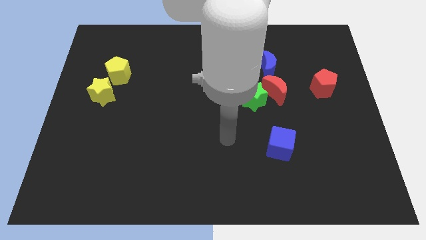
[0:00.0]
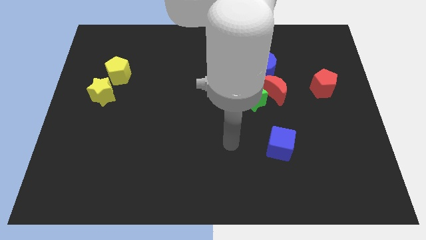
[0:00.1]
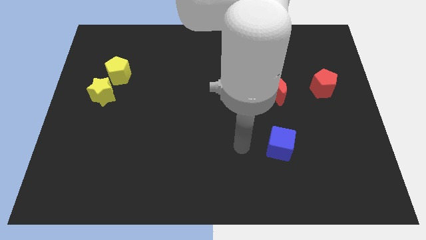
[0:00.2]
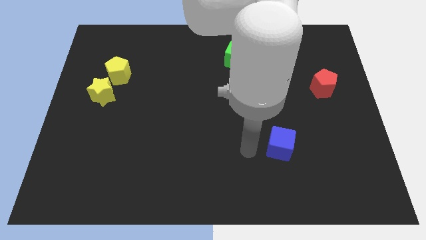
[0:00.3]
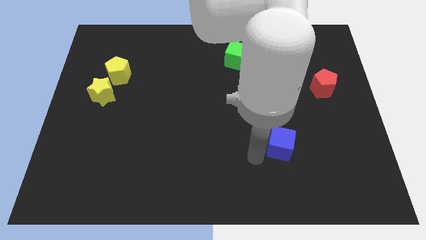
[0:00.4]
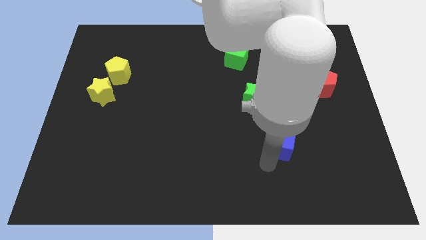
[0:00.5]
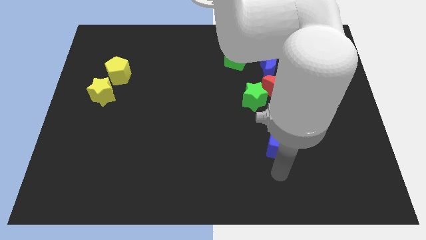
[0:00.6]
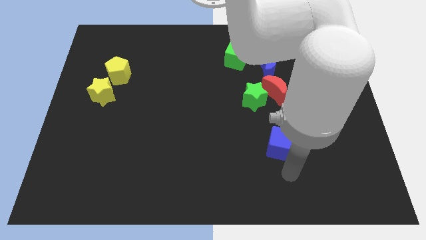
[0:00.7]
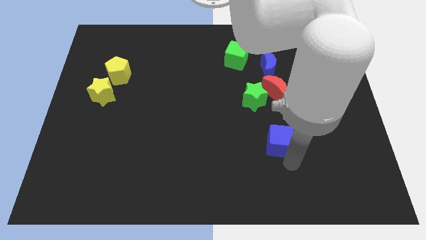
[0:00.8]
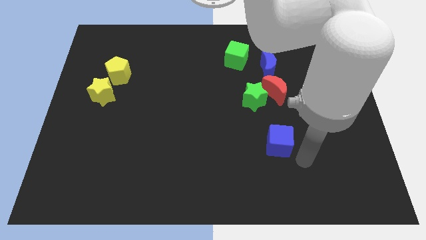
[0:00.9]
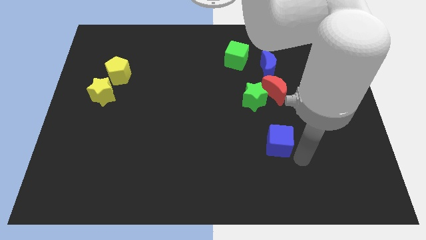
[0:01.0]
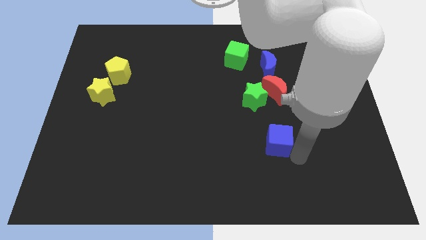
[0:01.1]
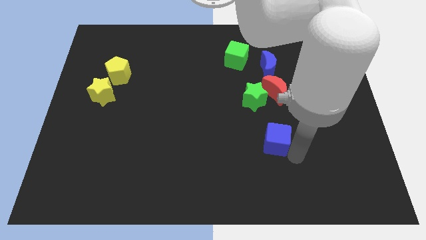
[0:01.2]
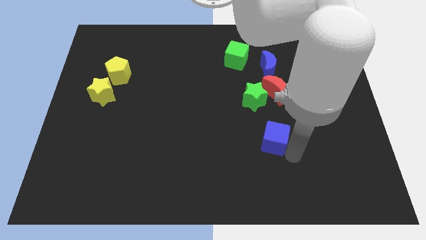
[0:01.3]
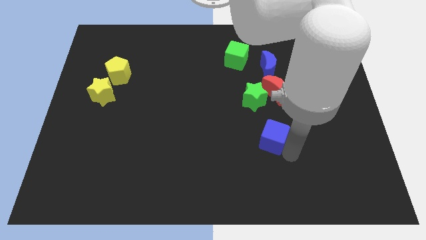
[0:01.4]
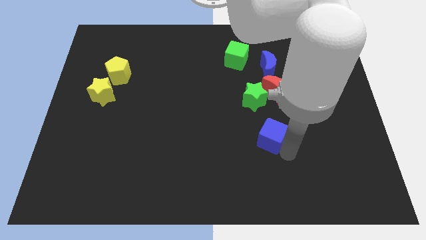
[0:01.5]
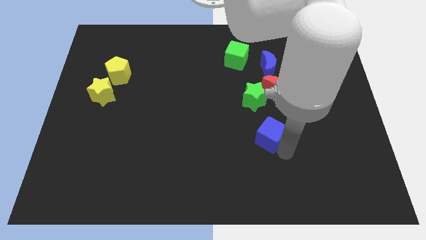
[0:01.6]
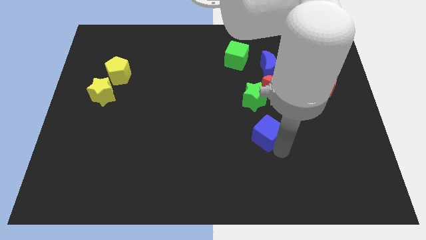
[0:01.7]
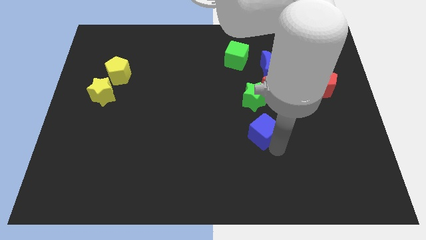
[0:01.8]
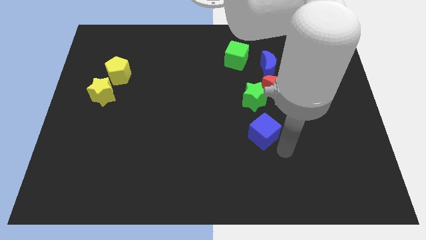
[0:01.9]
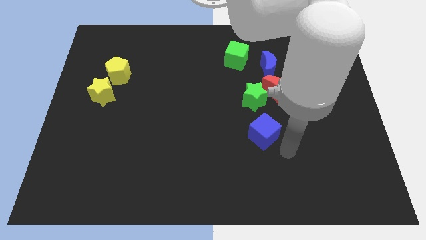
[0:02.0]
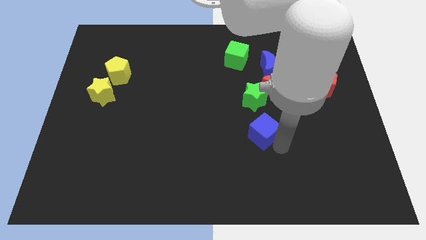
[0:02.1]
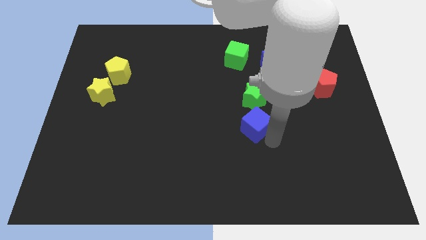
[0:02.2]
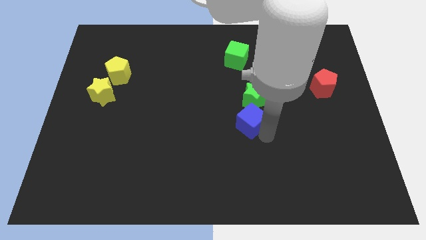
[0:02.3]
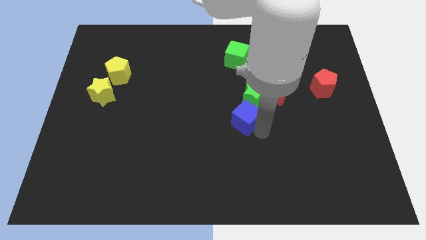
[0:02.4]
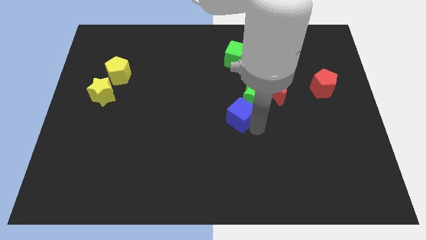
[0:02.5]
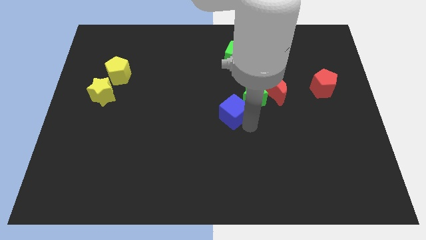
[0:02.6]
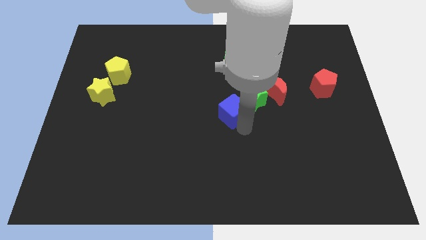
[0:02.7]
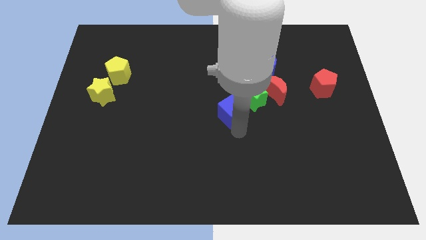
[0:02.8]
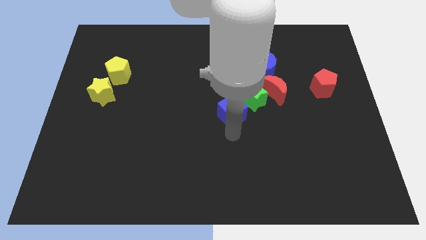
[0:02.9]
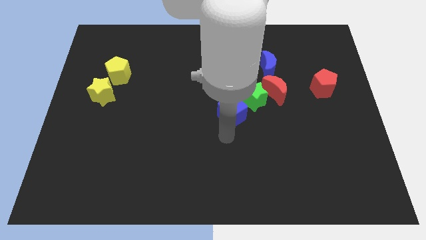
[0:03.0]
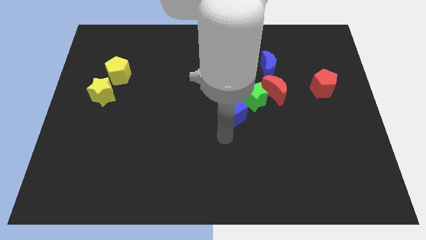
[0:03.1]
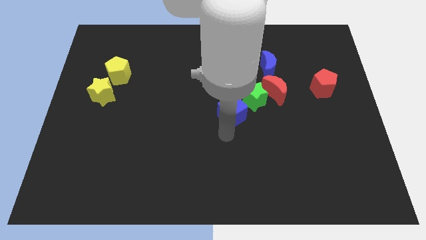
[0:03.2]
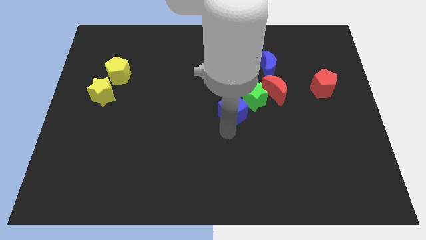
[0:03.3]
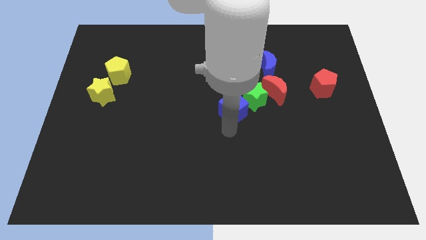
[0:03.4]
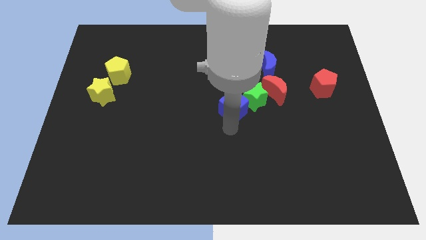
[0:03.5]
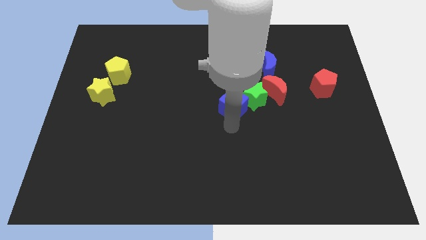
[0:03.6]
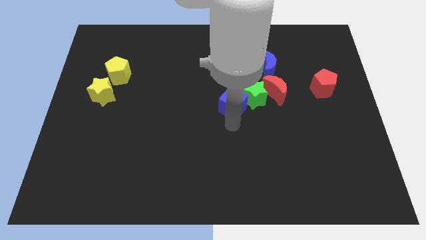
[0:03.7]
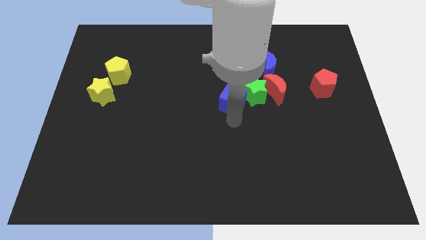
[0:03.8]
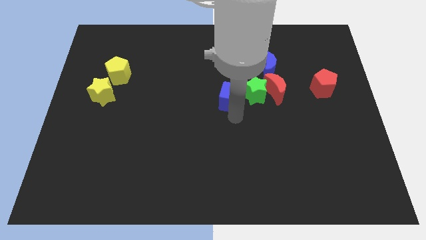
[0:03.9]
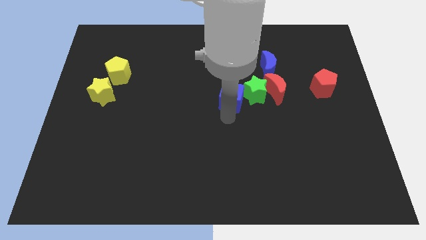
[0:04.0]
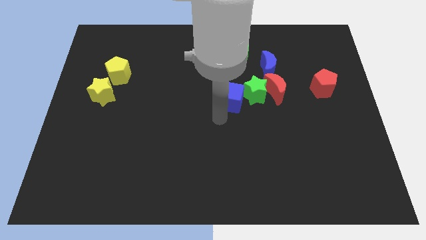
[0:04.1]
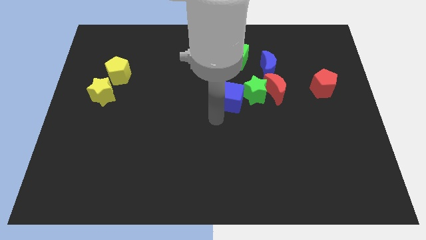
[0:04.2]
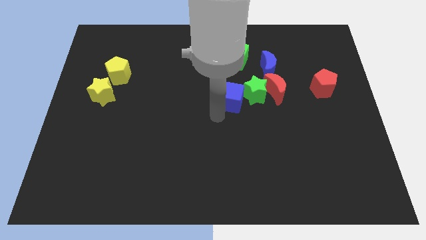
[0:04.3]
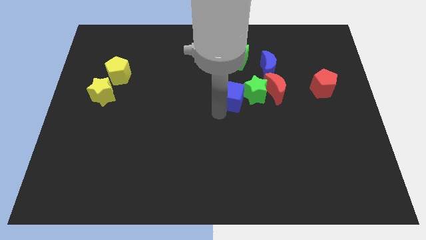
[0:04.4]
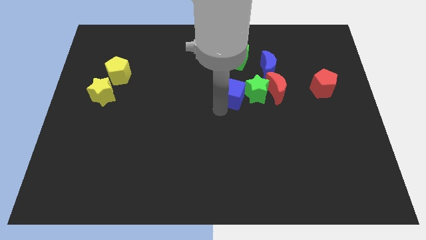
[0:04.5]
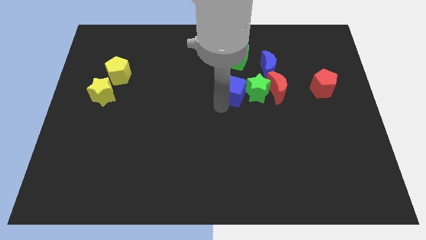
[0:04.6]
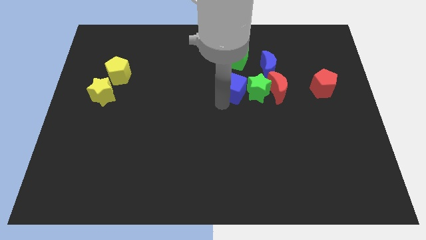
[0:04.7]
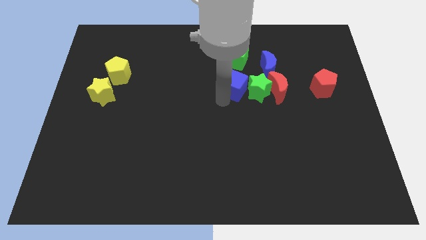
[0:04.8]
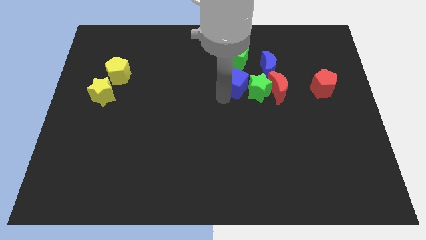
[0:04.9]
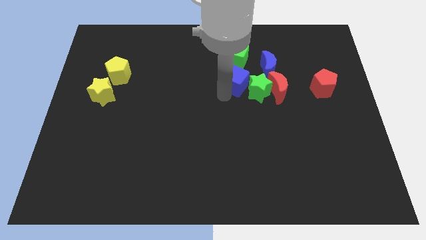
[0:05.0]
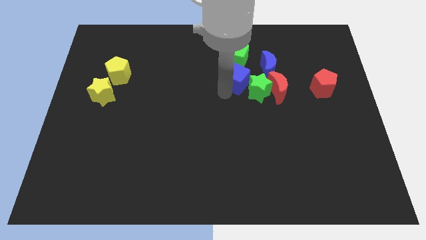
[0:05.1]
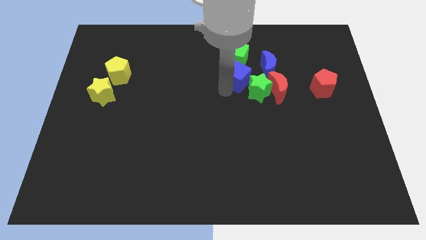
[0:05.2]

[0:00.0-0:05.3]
slide the blue cube diagonally up and to the left of the red moon

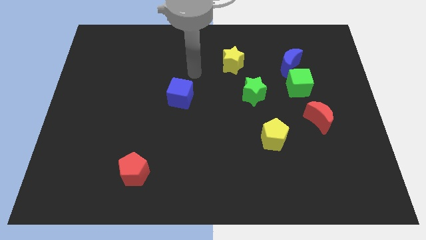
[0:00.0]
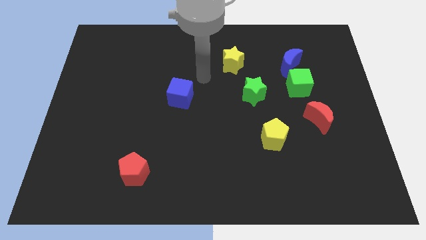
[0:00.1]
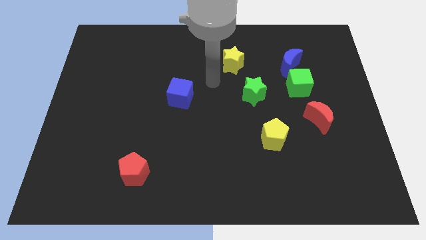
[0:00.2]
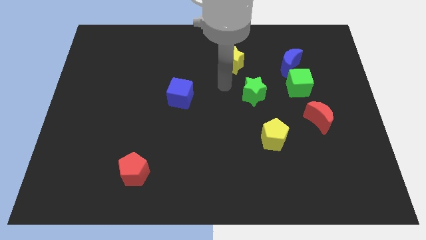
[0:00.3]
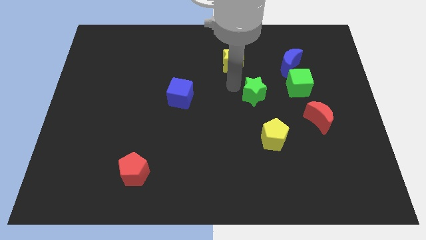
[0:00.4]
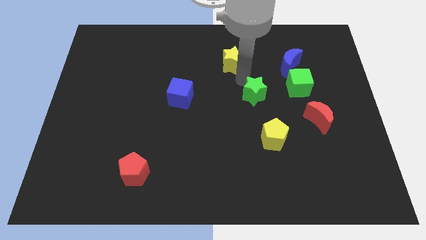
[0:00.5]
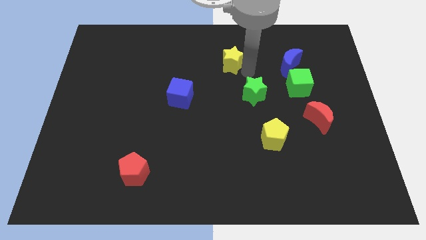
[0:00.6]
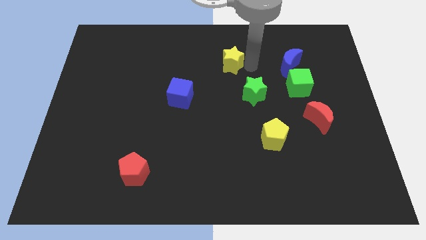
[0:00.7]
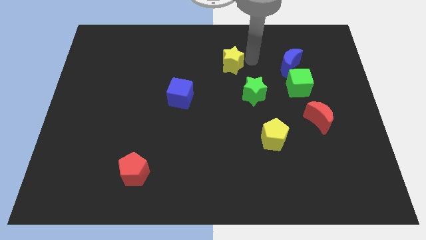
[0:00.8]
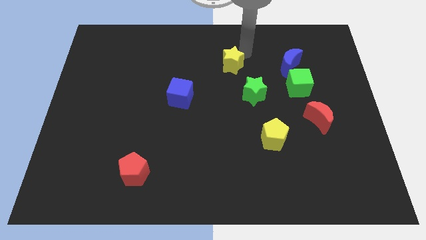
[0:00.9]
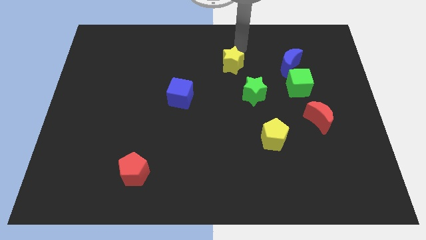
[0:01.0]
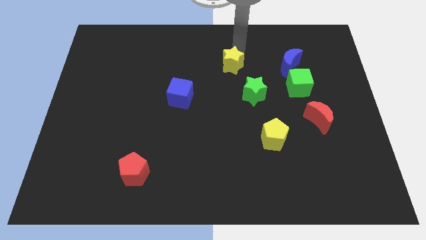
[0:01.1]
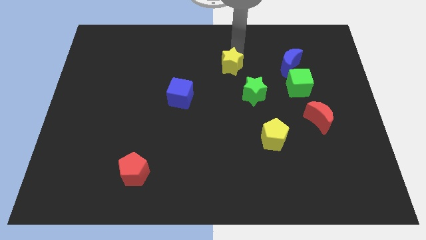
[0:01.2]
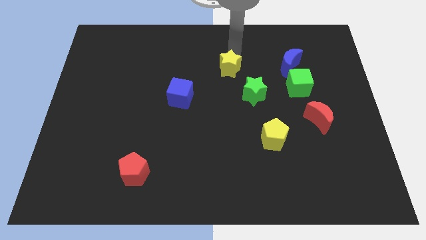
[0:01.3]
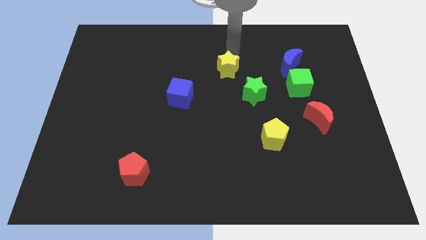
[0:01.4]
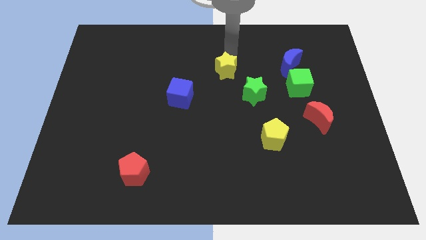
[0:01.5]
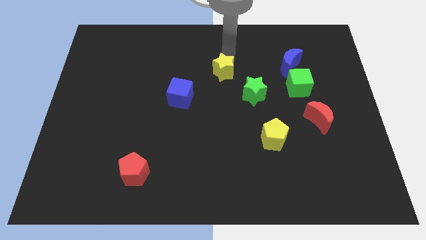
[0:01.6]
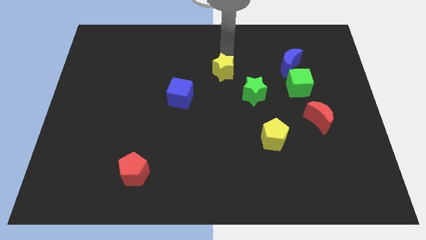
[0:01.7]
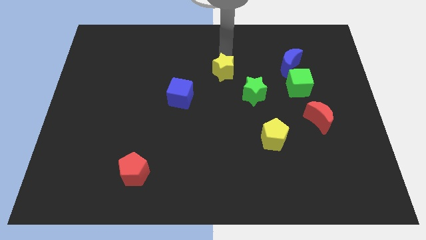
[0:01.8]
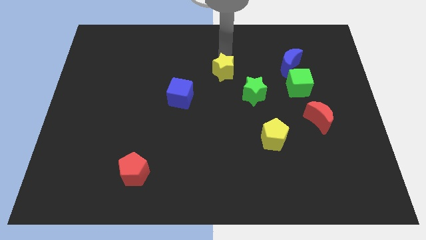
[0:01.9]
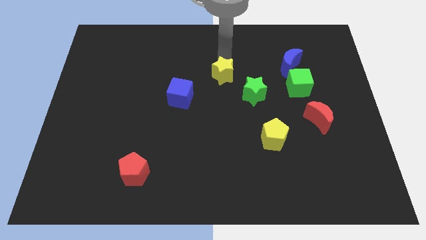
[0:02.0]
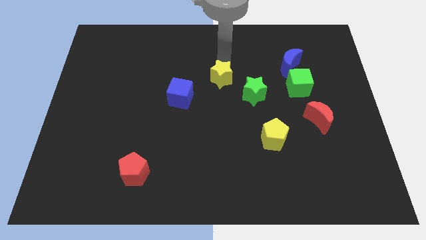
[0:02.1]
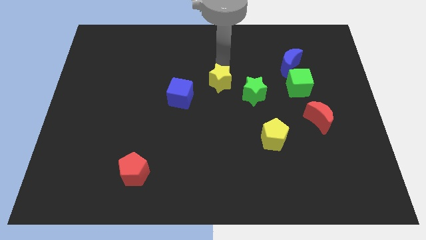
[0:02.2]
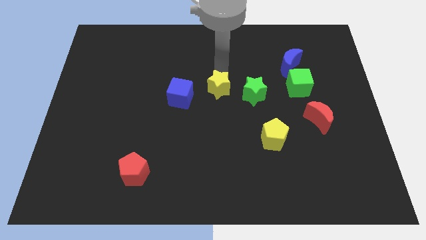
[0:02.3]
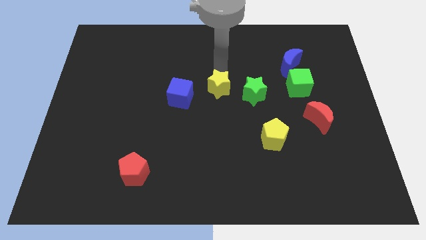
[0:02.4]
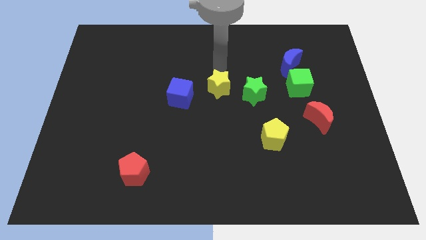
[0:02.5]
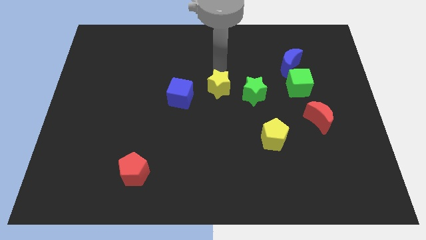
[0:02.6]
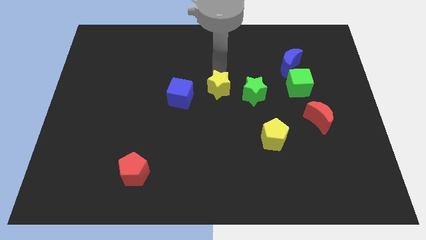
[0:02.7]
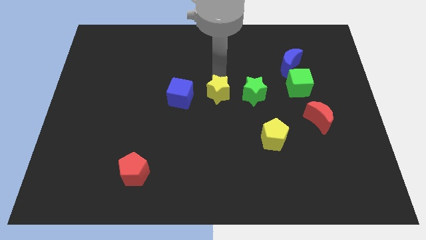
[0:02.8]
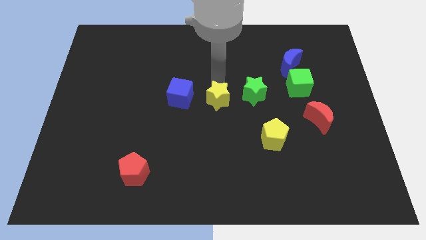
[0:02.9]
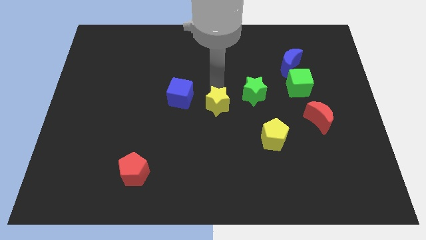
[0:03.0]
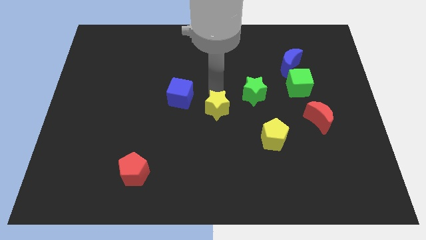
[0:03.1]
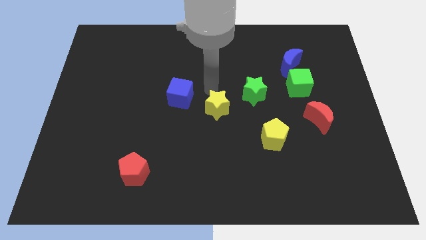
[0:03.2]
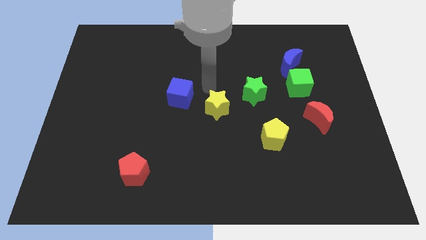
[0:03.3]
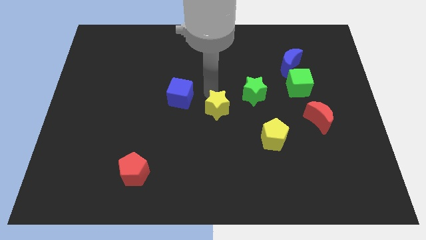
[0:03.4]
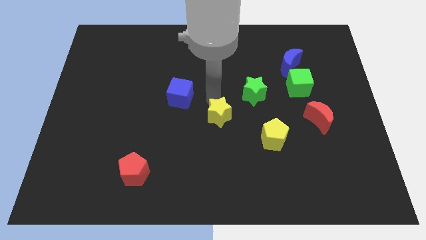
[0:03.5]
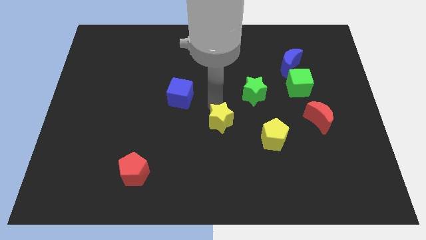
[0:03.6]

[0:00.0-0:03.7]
push the yellow star to the left of the yellow pentagon
